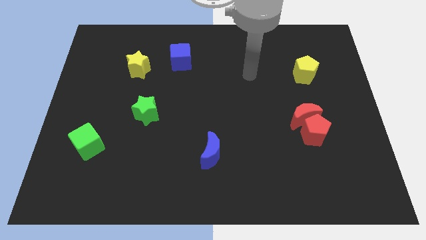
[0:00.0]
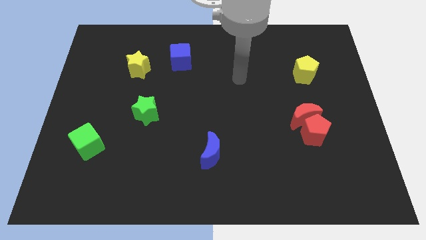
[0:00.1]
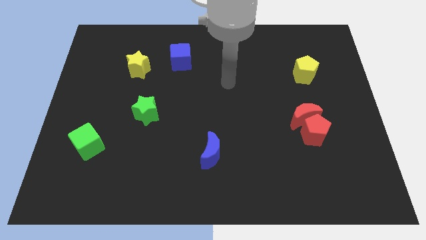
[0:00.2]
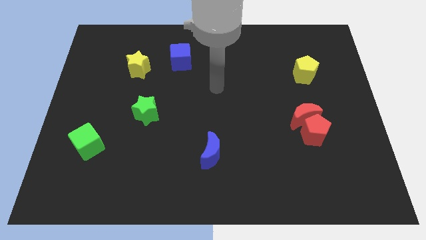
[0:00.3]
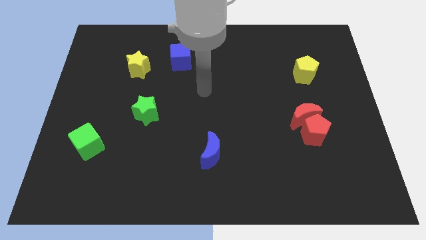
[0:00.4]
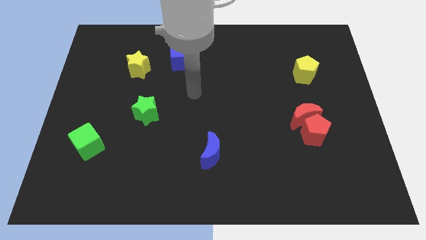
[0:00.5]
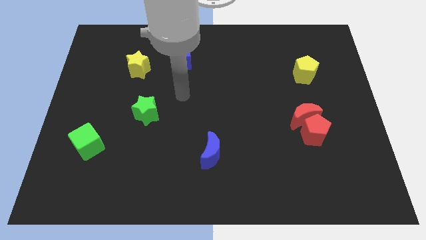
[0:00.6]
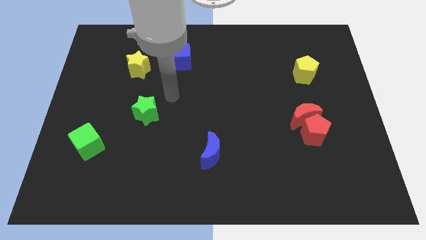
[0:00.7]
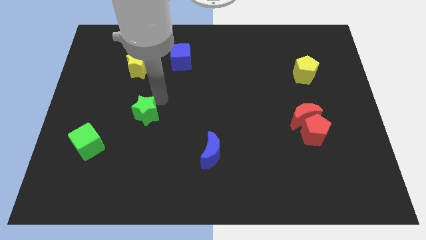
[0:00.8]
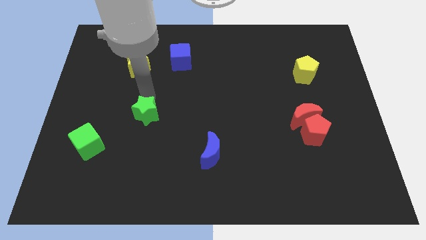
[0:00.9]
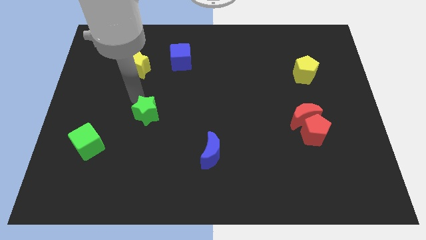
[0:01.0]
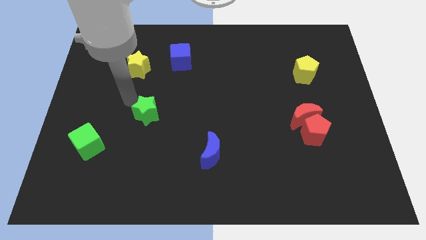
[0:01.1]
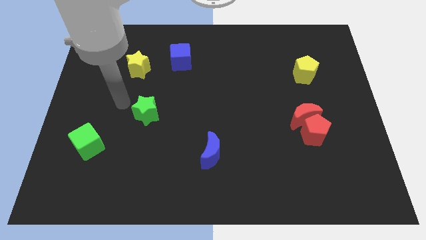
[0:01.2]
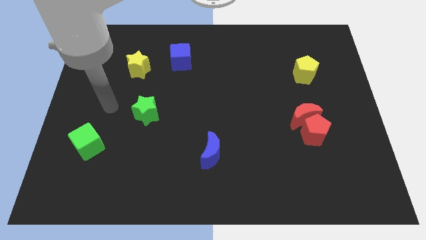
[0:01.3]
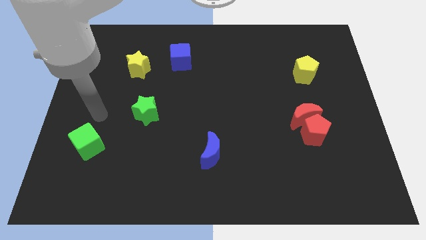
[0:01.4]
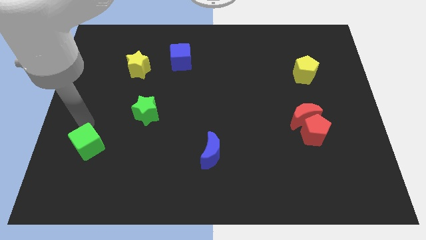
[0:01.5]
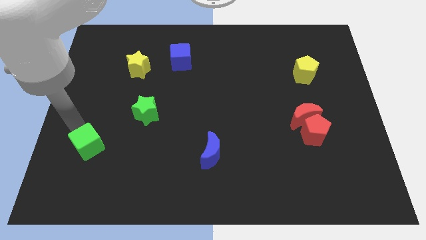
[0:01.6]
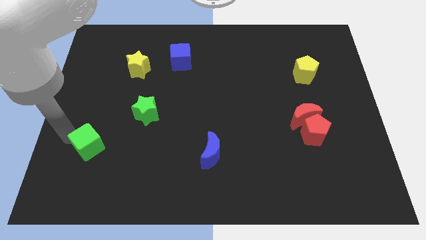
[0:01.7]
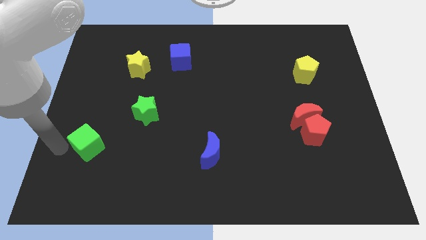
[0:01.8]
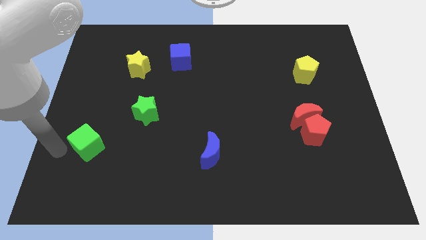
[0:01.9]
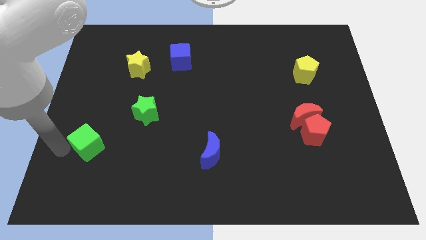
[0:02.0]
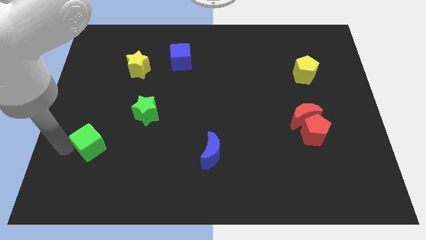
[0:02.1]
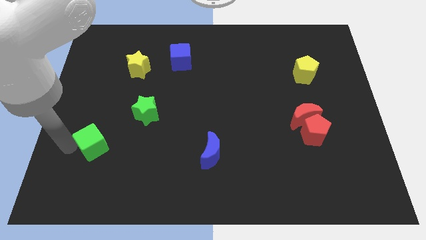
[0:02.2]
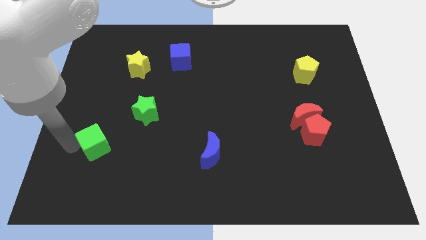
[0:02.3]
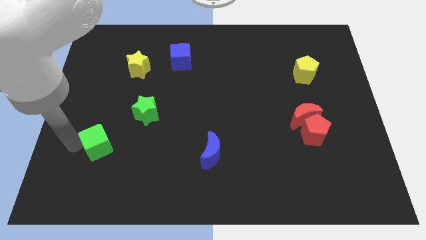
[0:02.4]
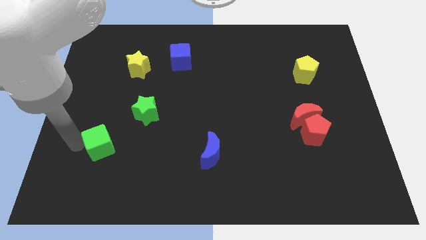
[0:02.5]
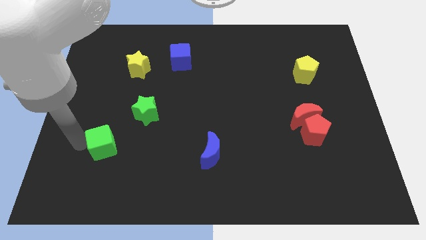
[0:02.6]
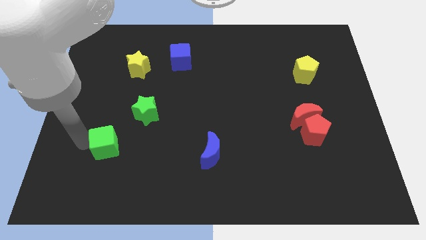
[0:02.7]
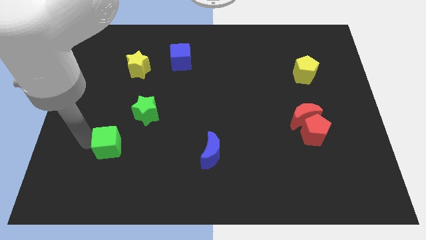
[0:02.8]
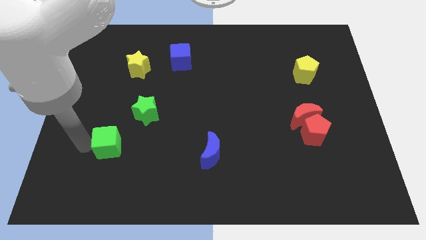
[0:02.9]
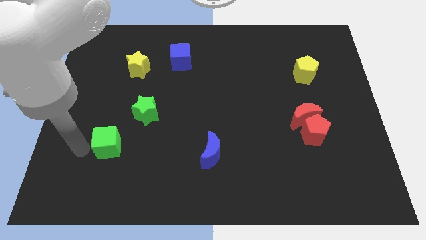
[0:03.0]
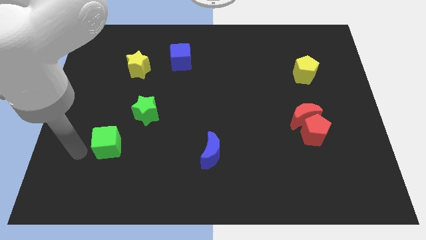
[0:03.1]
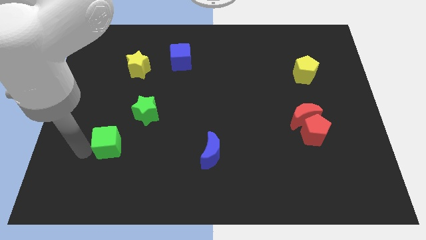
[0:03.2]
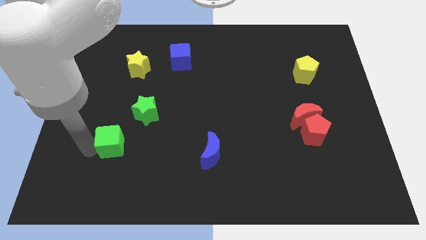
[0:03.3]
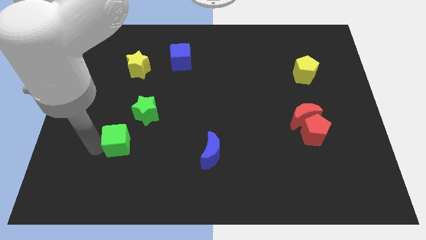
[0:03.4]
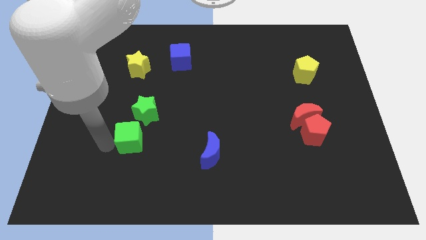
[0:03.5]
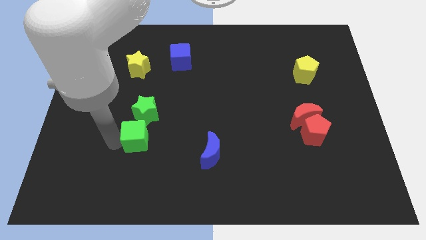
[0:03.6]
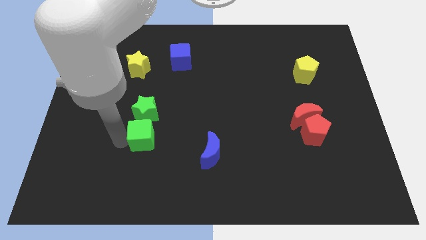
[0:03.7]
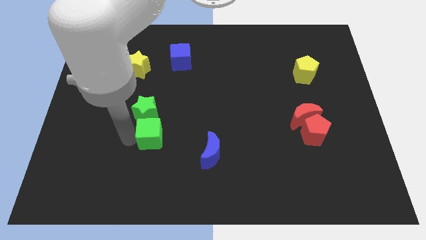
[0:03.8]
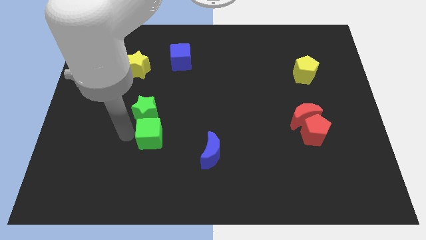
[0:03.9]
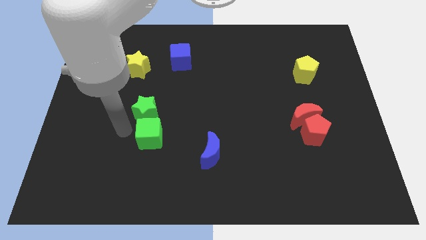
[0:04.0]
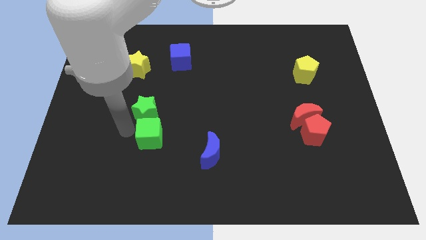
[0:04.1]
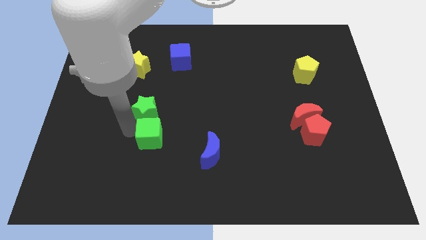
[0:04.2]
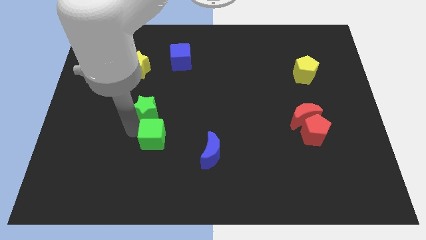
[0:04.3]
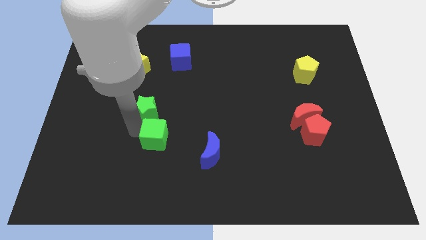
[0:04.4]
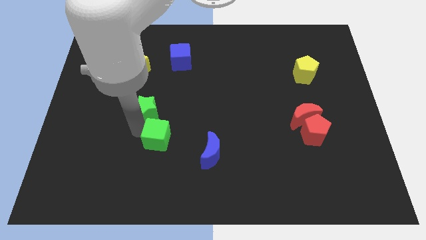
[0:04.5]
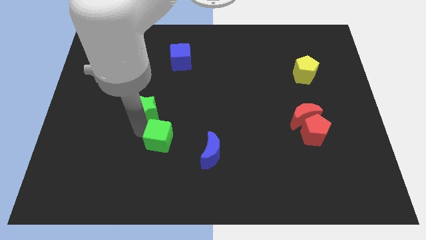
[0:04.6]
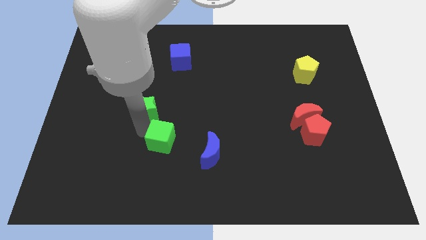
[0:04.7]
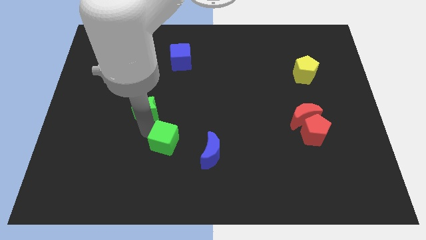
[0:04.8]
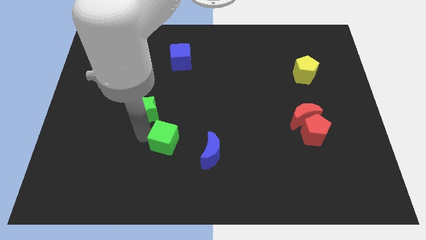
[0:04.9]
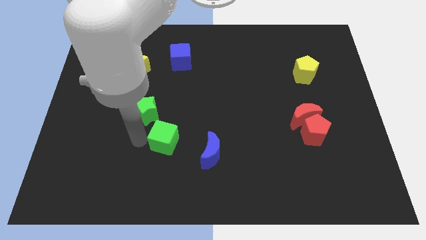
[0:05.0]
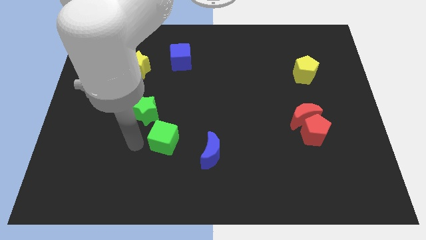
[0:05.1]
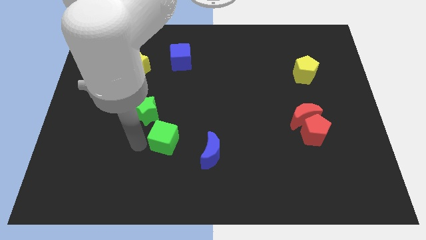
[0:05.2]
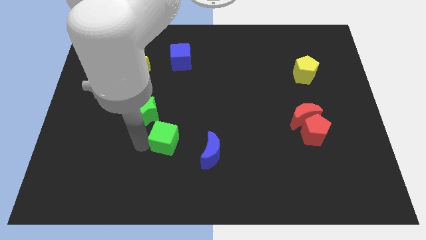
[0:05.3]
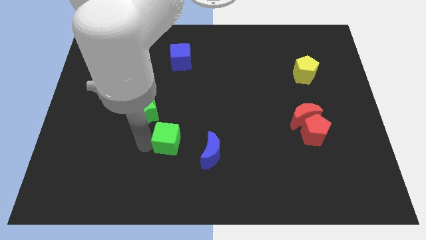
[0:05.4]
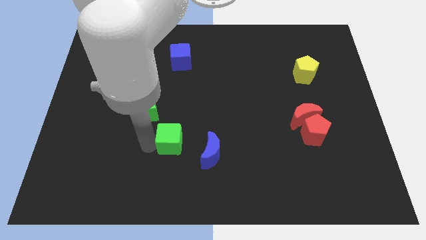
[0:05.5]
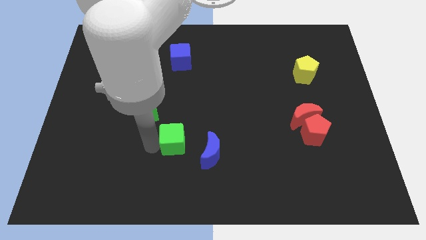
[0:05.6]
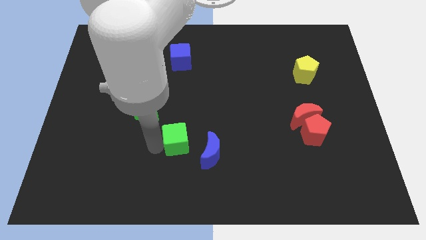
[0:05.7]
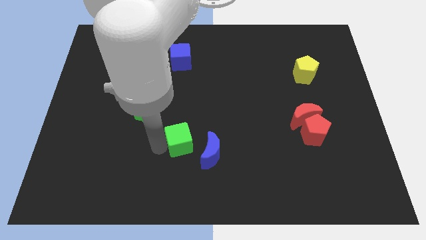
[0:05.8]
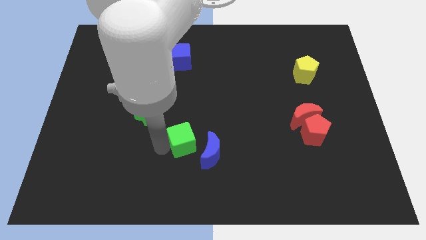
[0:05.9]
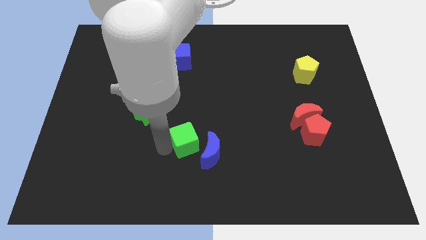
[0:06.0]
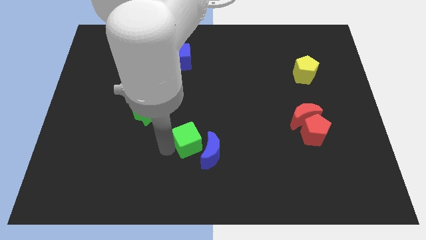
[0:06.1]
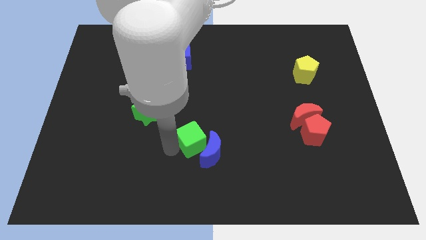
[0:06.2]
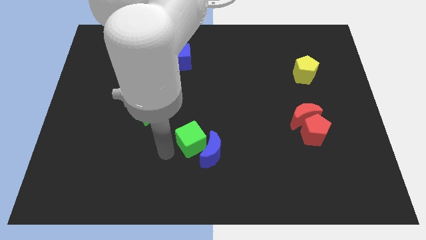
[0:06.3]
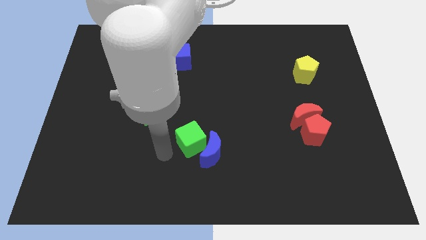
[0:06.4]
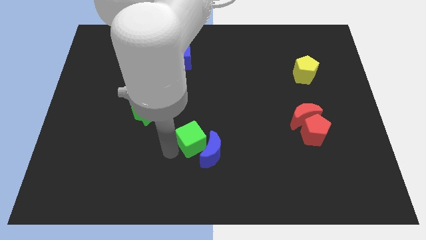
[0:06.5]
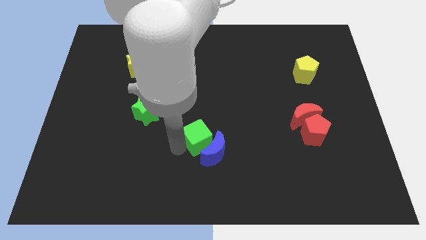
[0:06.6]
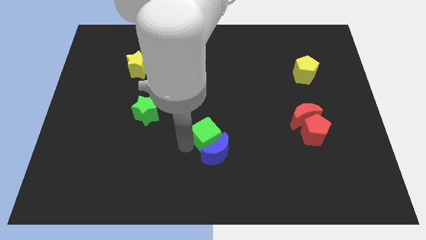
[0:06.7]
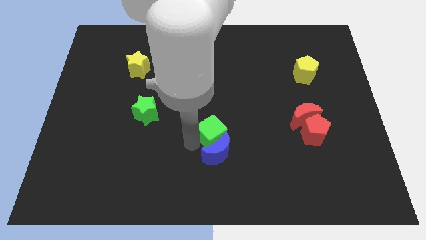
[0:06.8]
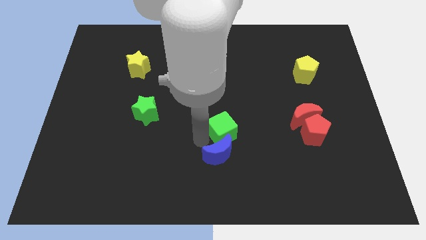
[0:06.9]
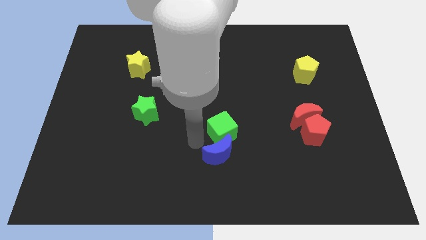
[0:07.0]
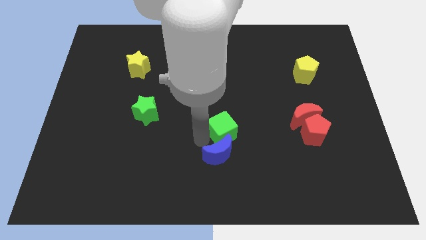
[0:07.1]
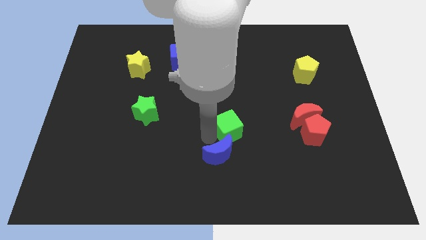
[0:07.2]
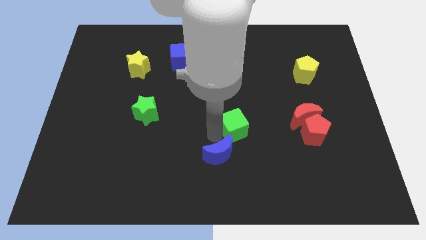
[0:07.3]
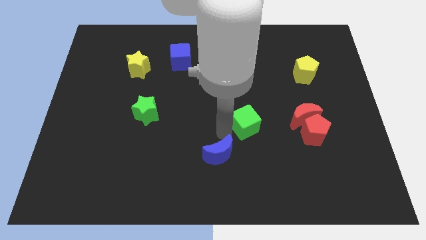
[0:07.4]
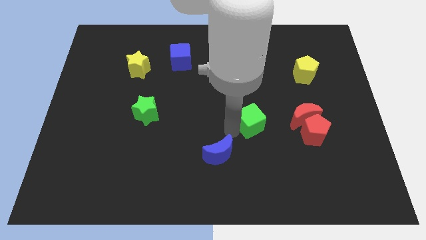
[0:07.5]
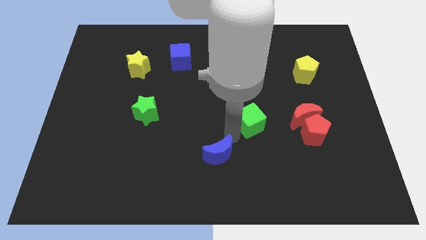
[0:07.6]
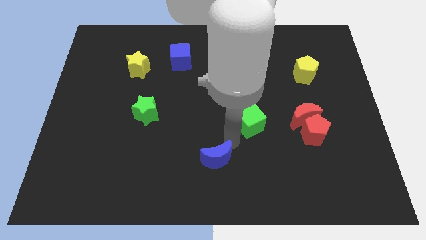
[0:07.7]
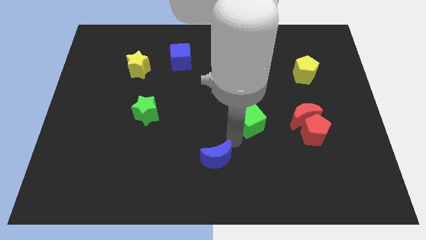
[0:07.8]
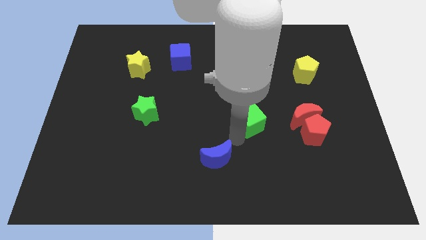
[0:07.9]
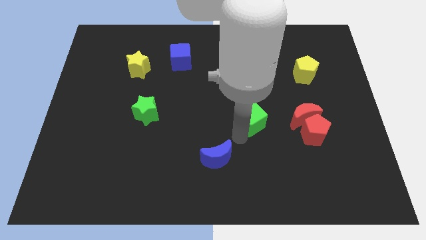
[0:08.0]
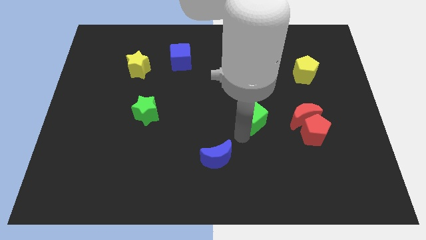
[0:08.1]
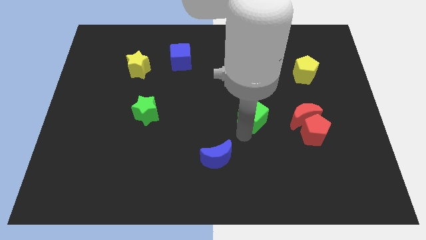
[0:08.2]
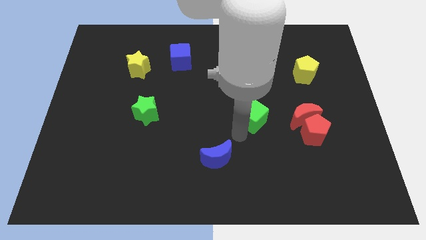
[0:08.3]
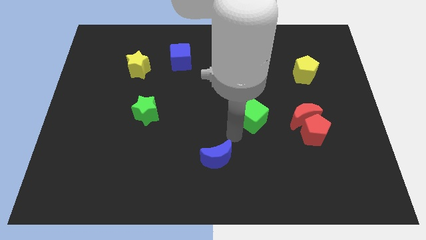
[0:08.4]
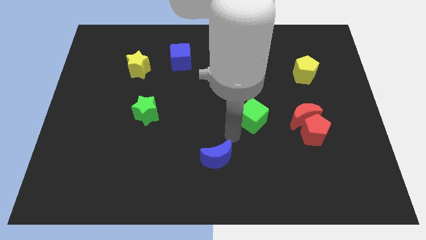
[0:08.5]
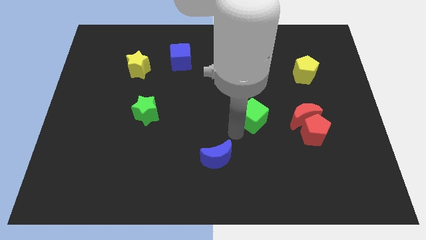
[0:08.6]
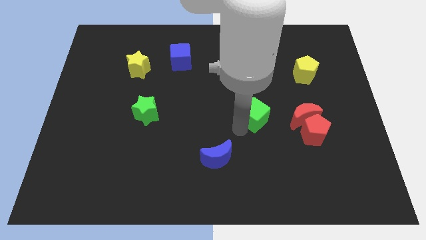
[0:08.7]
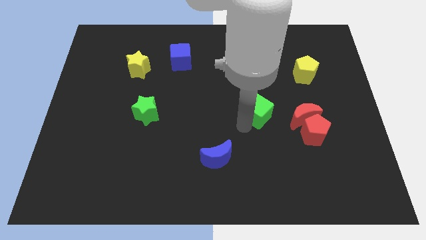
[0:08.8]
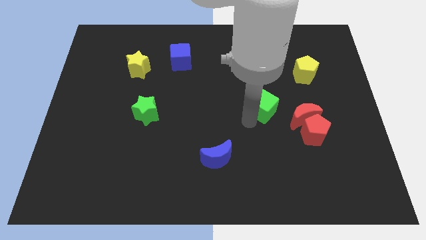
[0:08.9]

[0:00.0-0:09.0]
put the green cube diagonally up and to the left of the red moon
